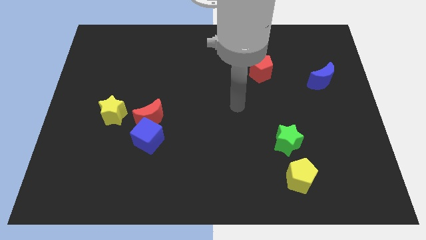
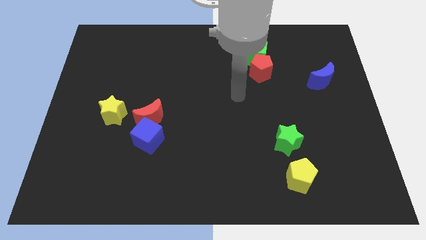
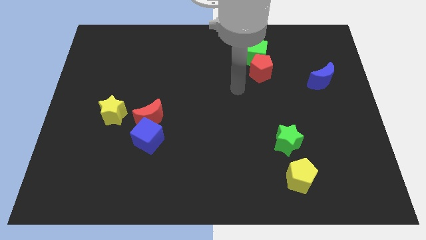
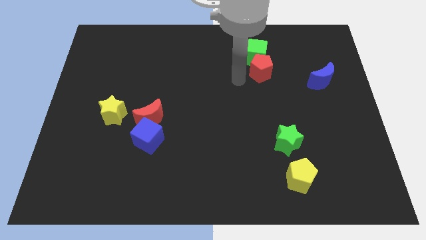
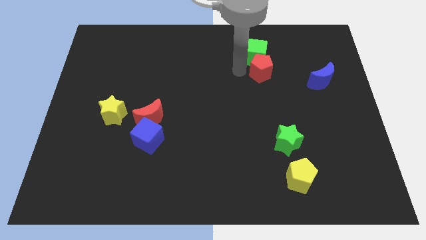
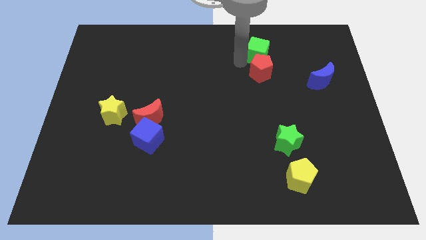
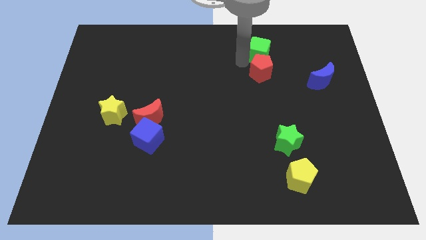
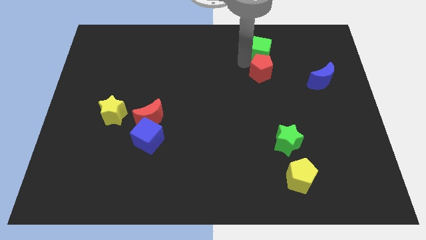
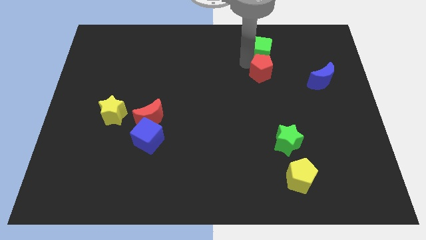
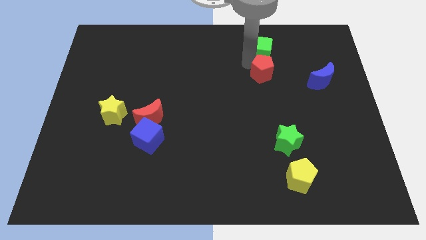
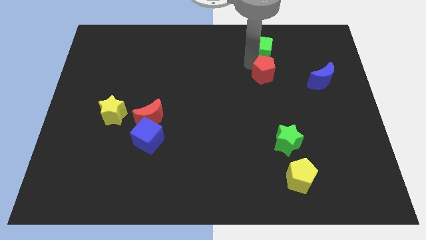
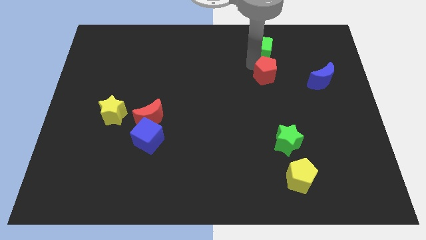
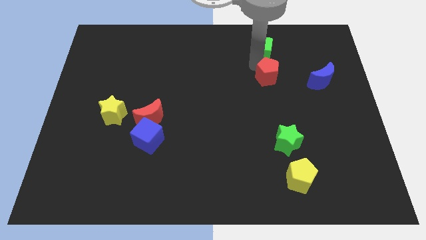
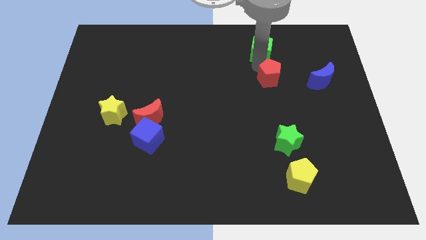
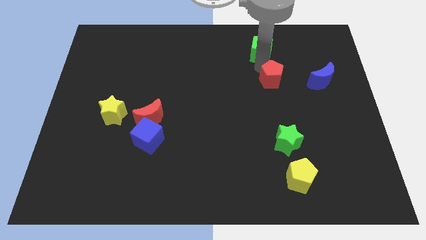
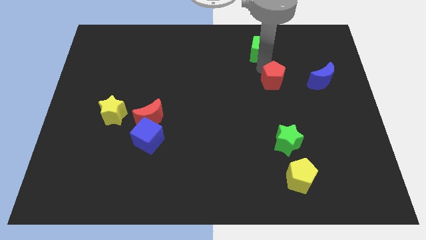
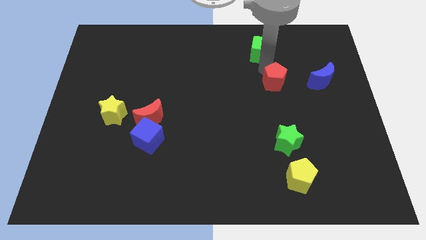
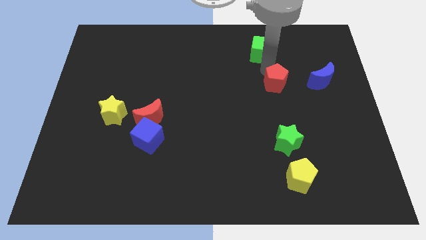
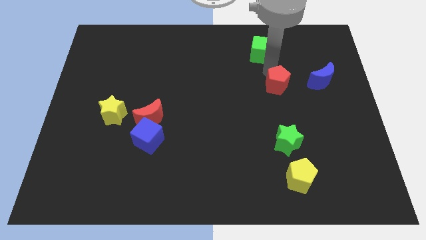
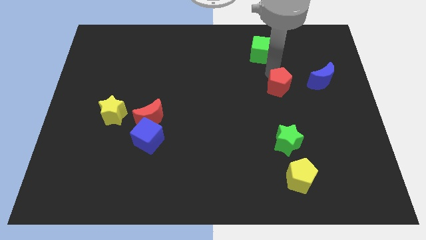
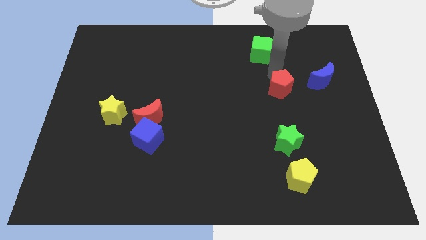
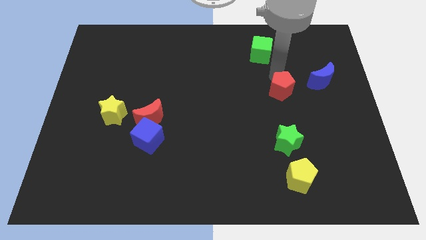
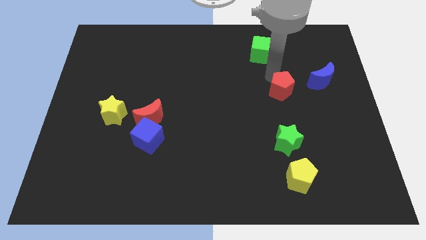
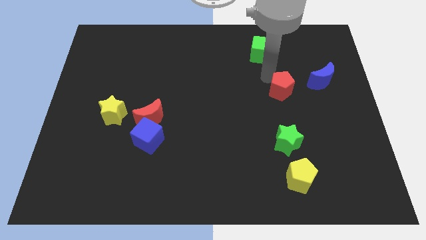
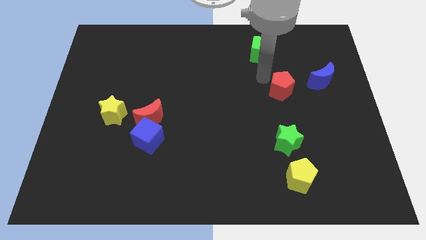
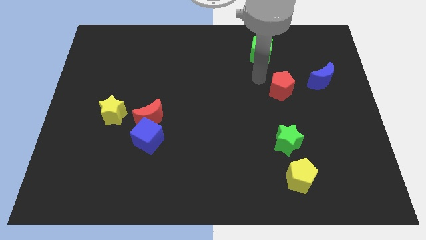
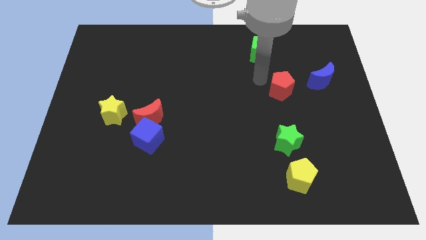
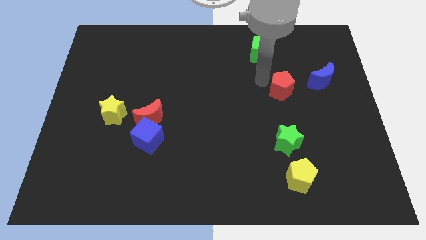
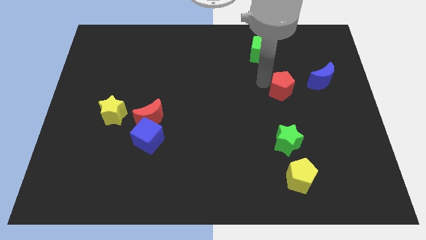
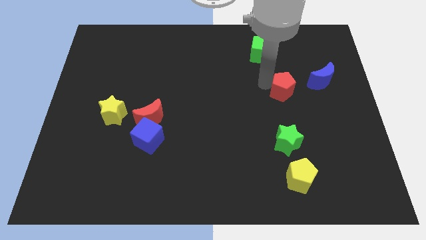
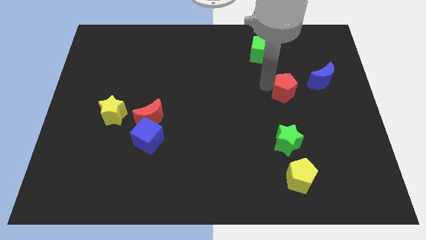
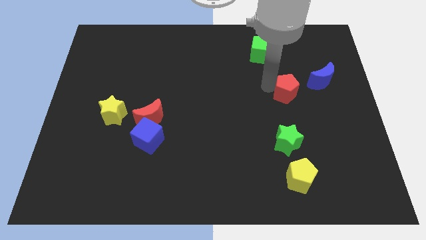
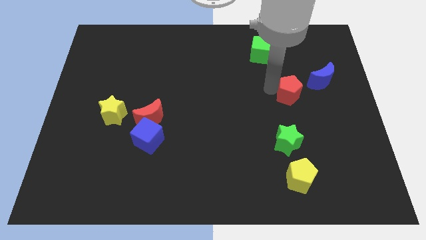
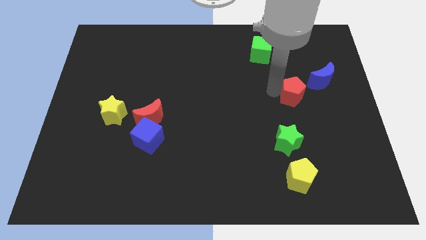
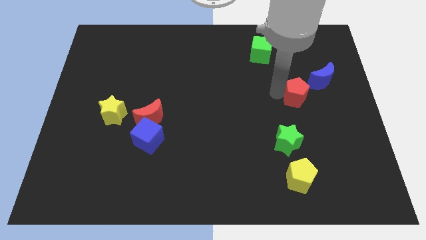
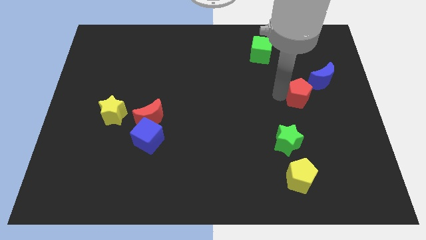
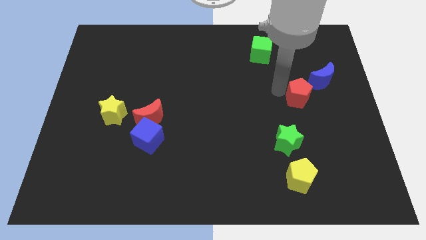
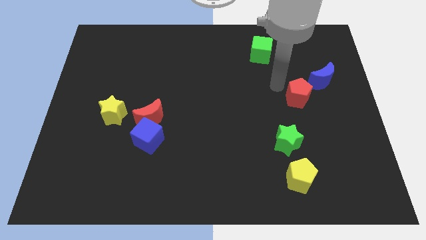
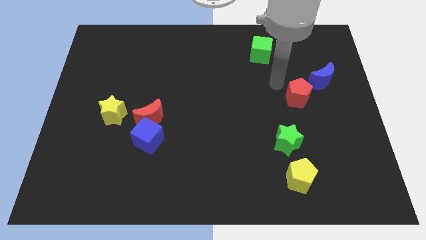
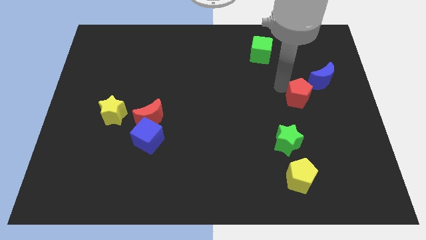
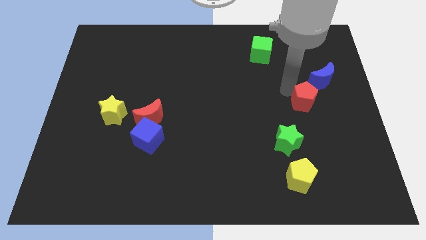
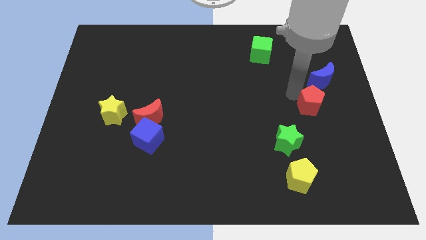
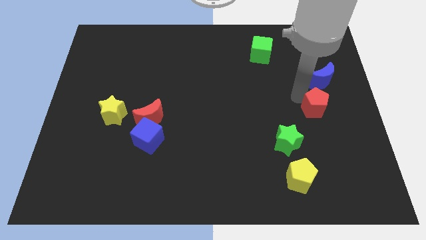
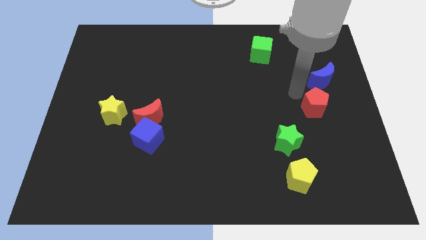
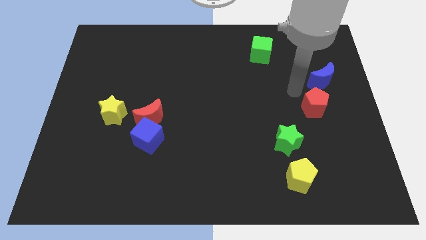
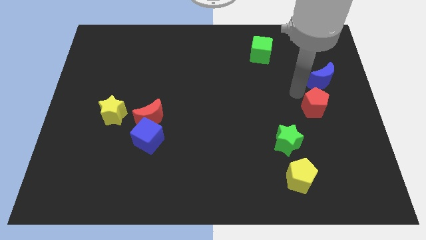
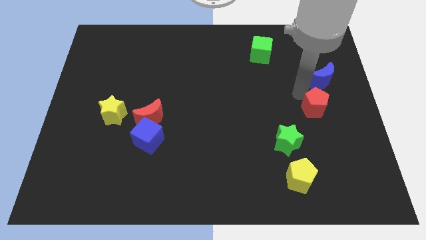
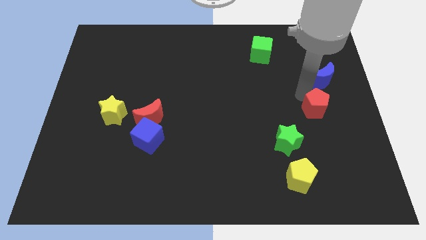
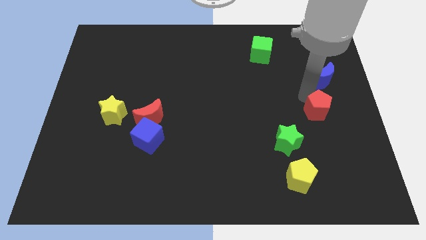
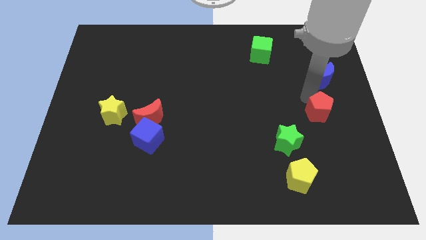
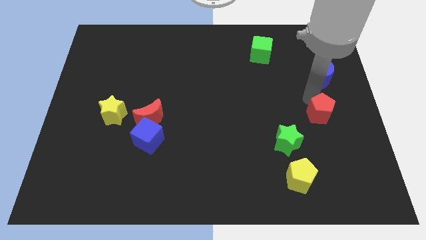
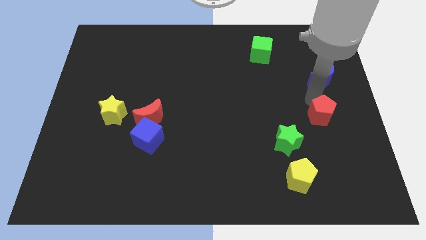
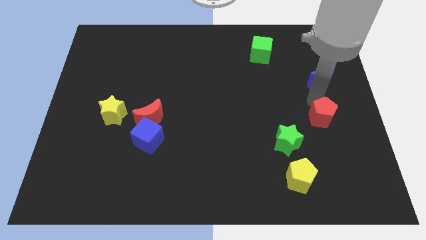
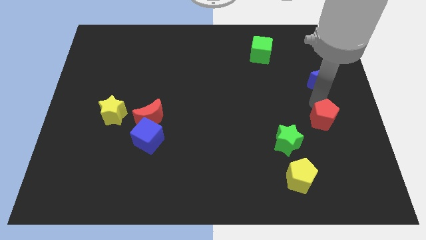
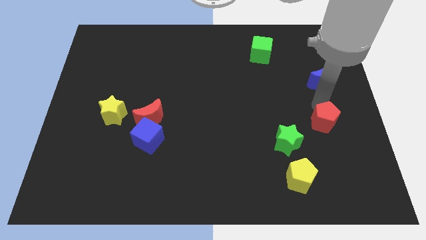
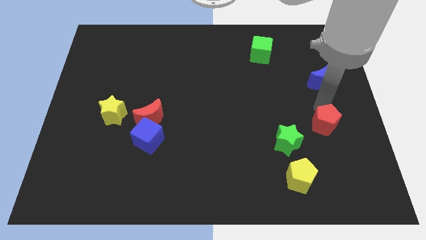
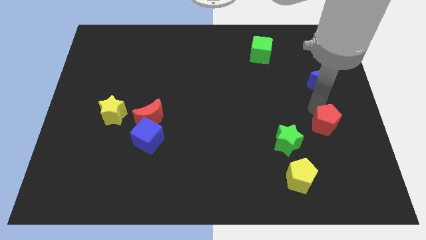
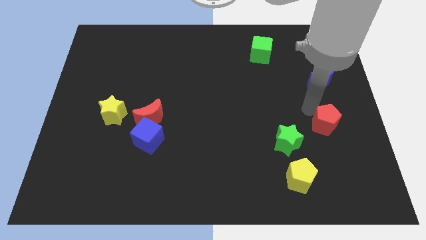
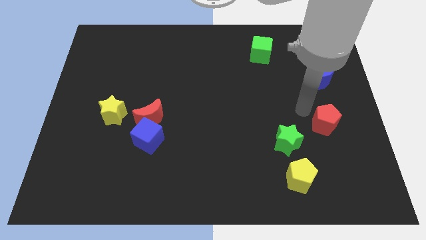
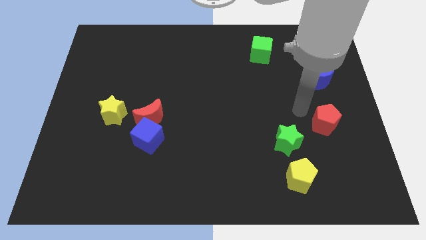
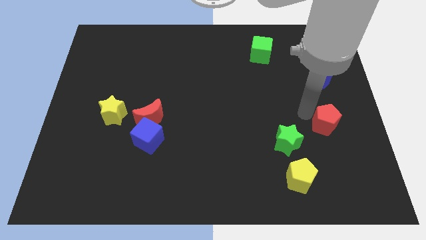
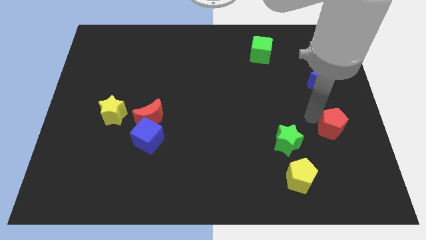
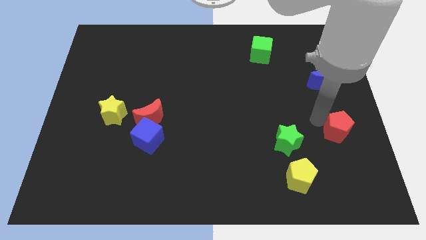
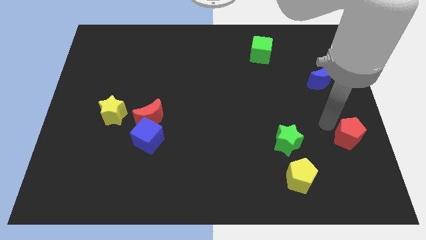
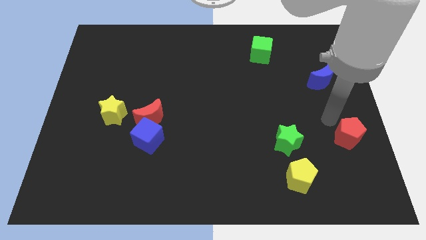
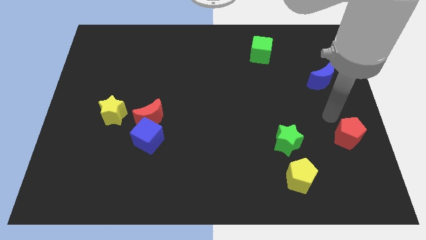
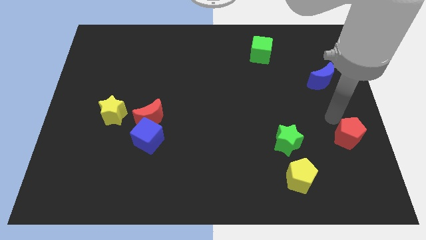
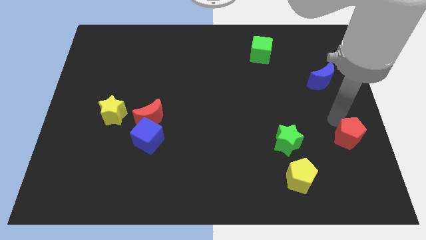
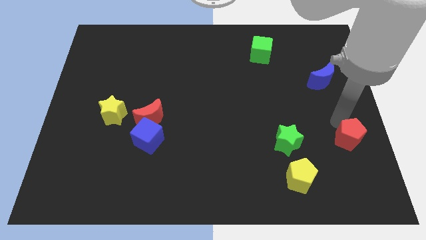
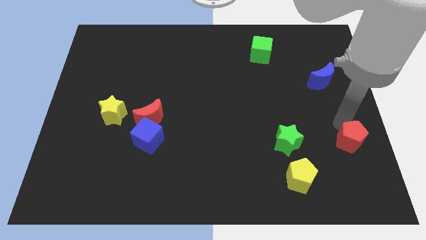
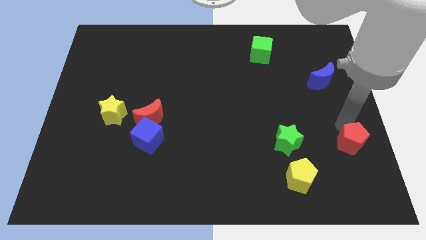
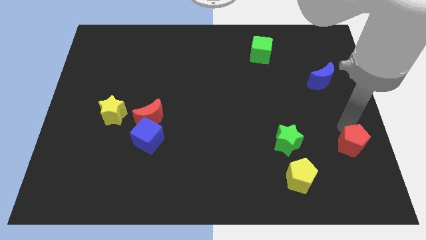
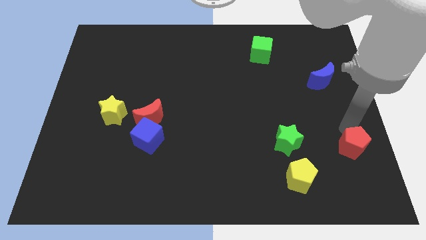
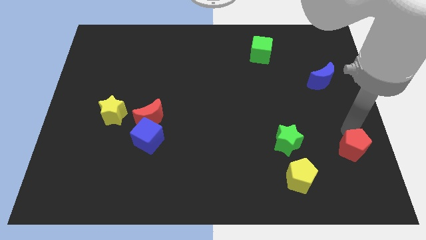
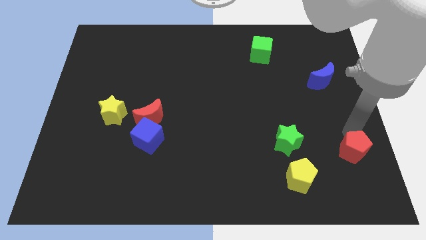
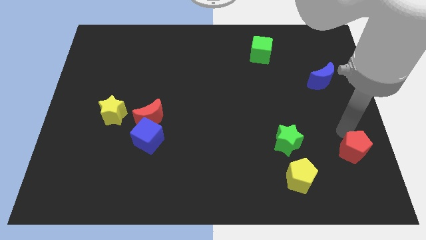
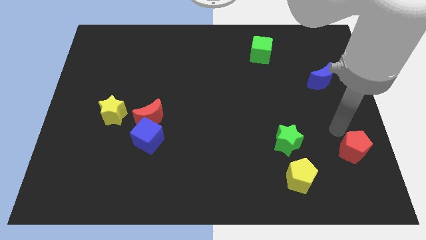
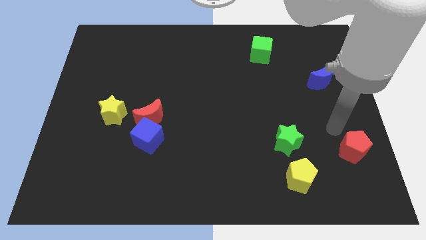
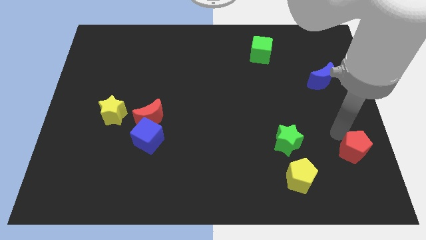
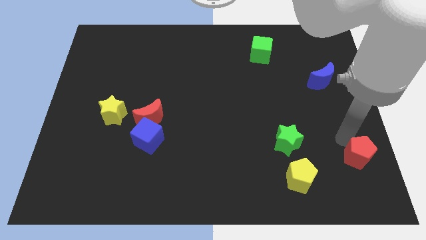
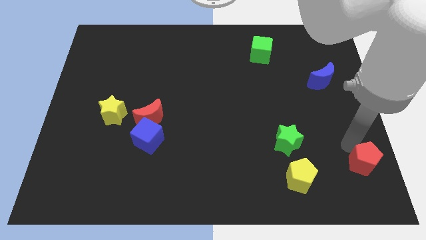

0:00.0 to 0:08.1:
put the red pentagon to the lower right corner
